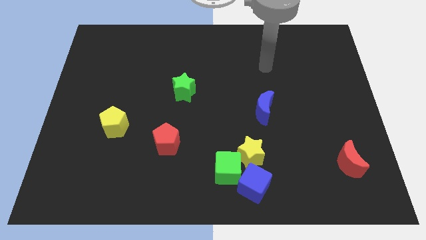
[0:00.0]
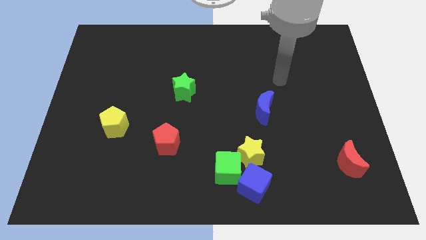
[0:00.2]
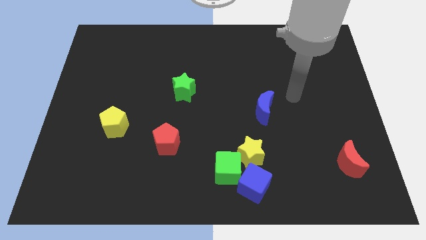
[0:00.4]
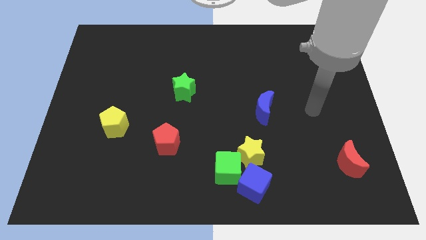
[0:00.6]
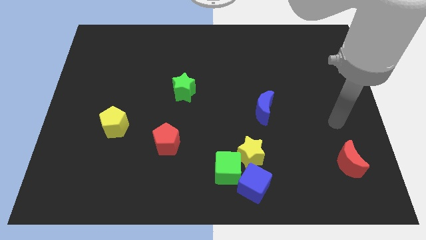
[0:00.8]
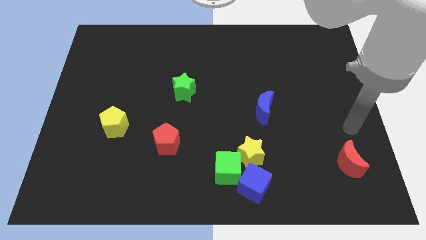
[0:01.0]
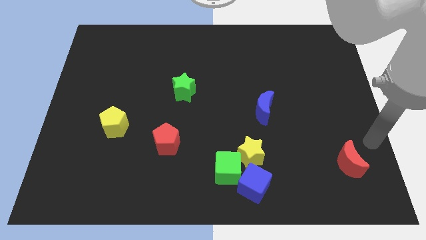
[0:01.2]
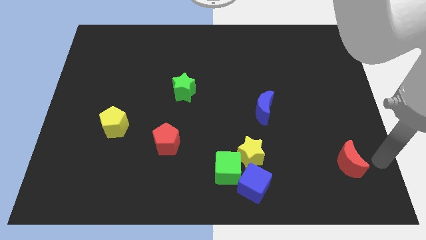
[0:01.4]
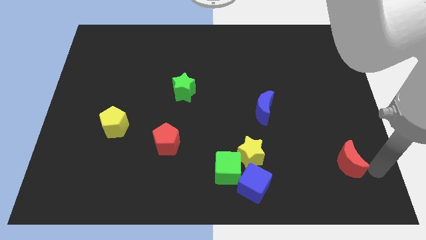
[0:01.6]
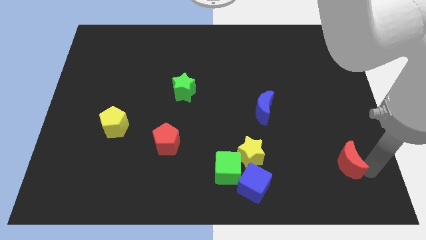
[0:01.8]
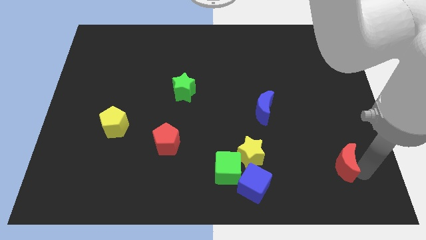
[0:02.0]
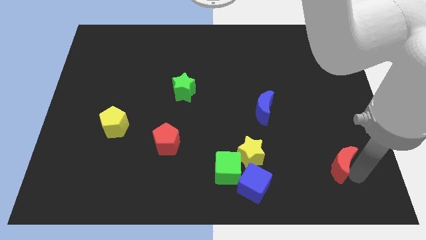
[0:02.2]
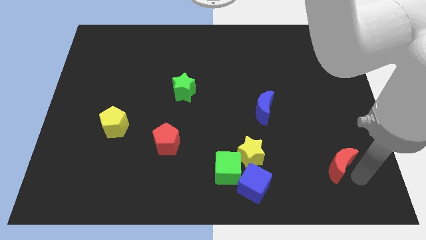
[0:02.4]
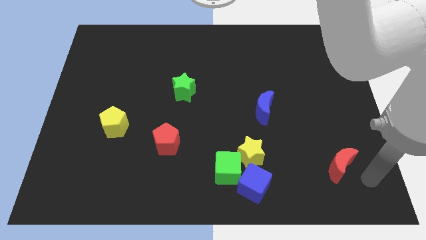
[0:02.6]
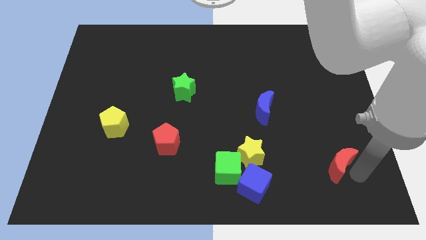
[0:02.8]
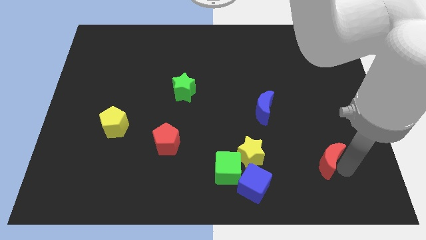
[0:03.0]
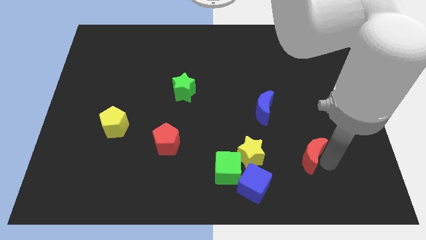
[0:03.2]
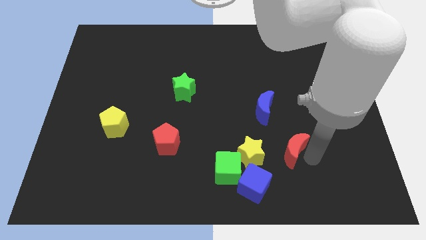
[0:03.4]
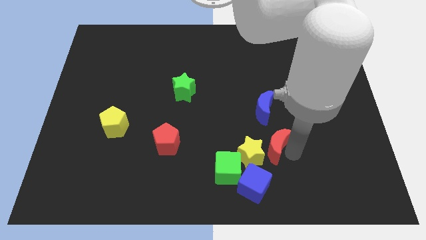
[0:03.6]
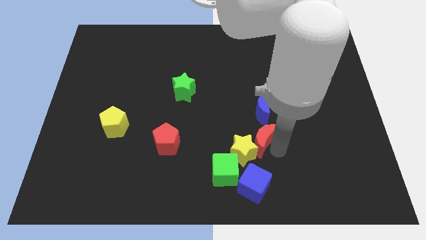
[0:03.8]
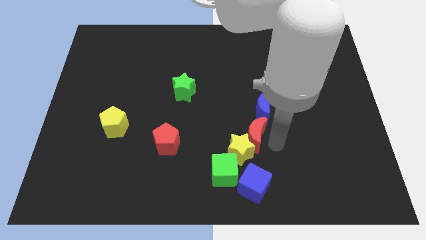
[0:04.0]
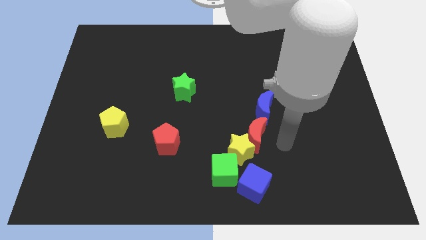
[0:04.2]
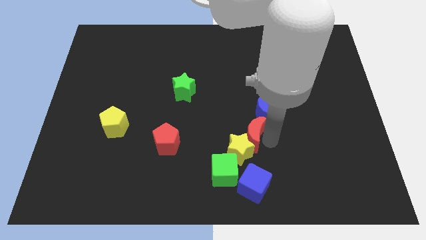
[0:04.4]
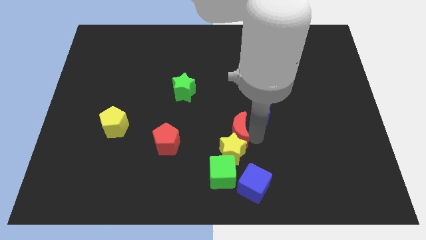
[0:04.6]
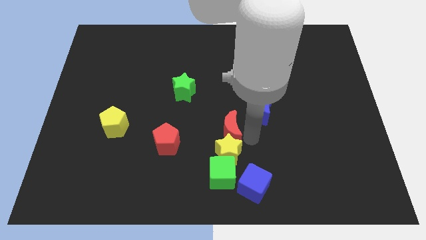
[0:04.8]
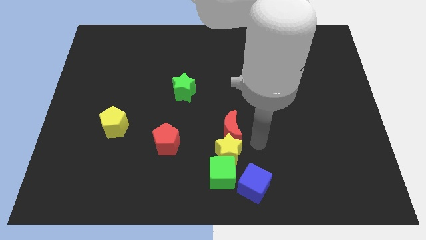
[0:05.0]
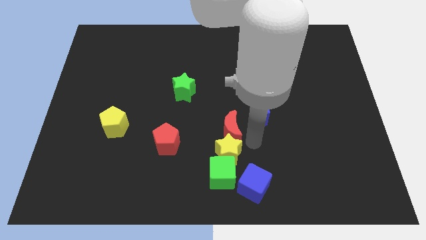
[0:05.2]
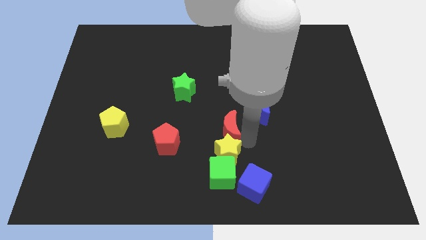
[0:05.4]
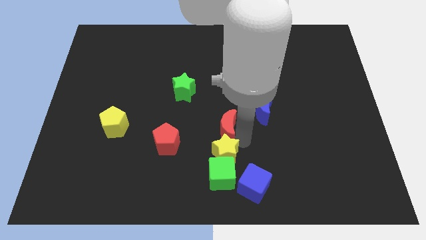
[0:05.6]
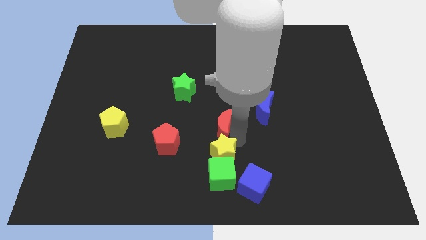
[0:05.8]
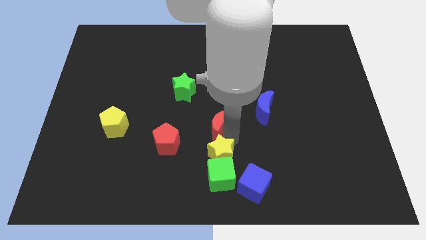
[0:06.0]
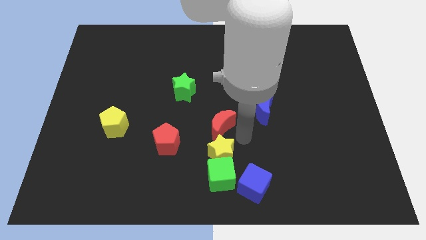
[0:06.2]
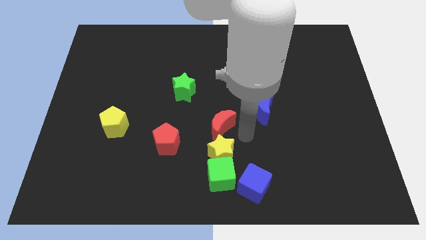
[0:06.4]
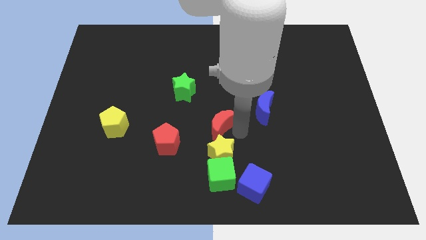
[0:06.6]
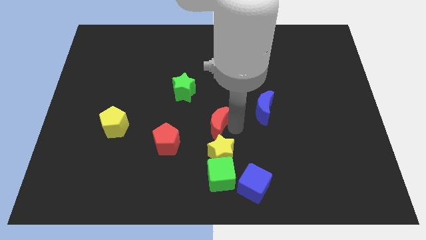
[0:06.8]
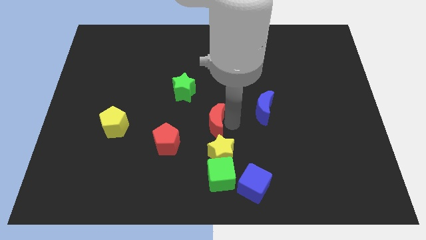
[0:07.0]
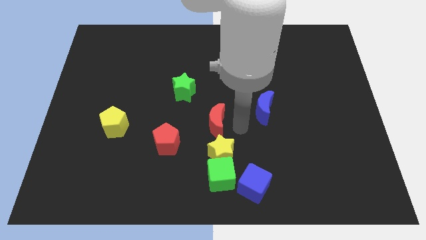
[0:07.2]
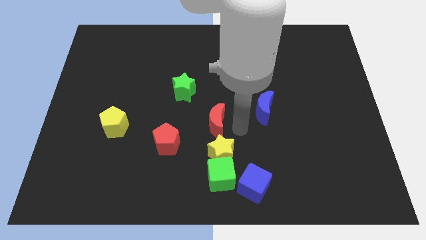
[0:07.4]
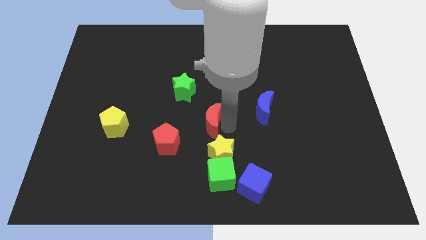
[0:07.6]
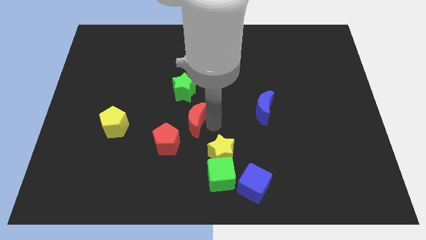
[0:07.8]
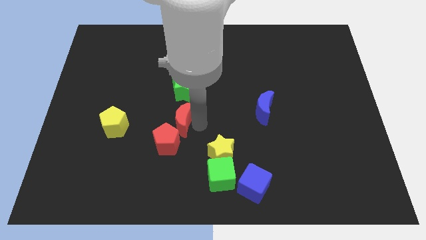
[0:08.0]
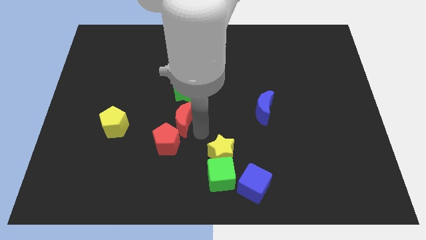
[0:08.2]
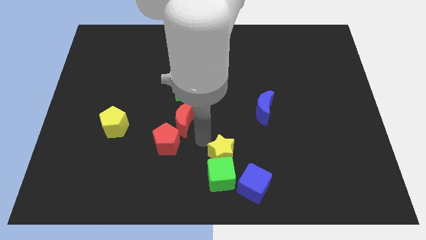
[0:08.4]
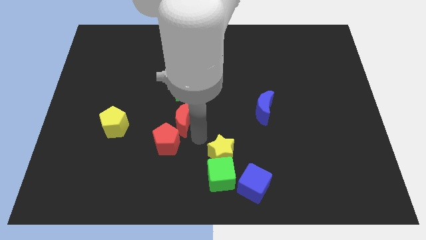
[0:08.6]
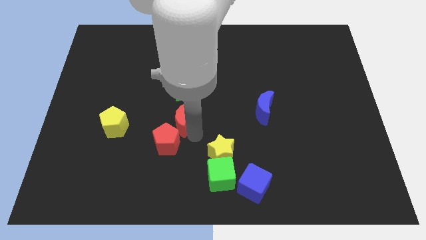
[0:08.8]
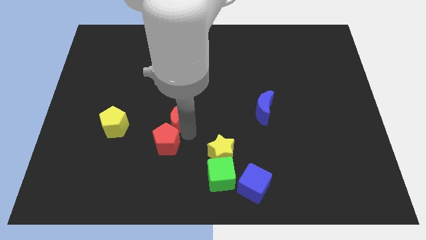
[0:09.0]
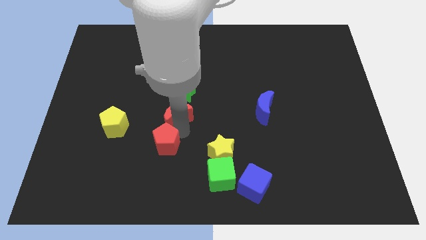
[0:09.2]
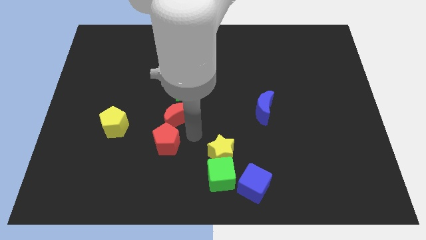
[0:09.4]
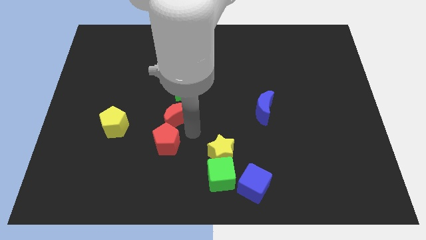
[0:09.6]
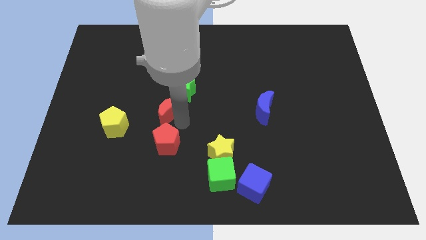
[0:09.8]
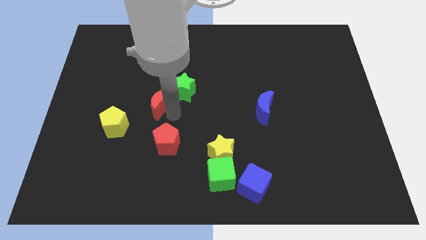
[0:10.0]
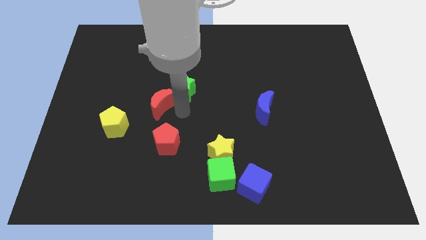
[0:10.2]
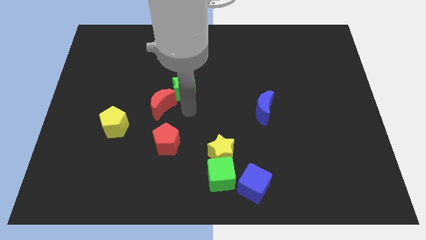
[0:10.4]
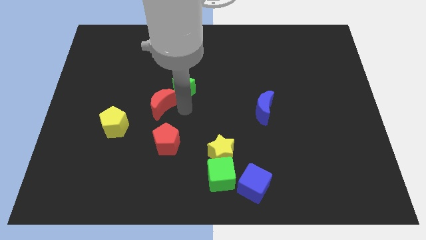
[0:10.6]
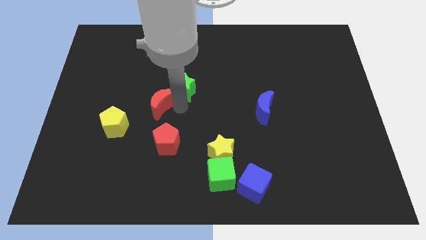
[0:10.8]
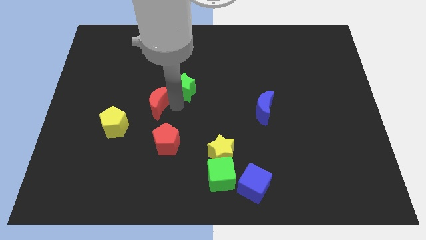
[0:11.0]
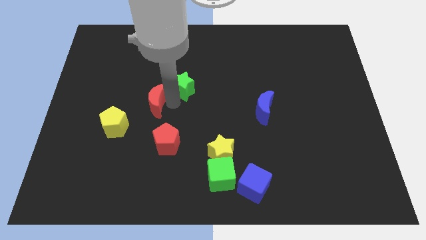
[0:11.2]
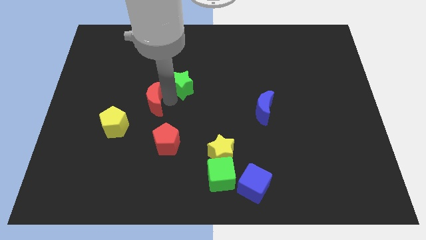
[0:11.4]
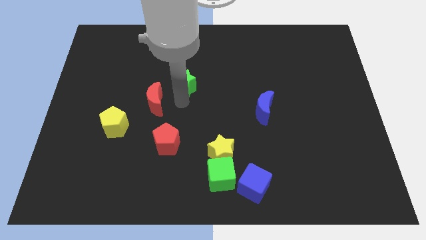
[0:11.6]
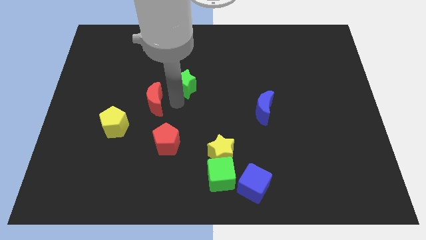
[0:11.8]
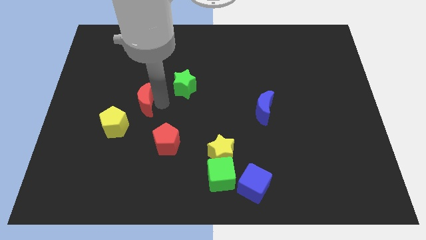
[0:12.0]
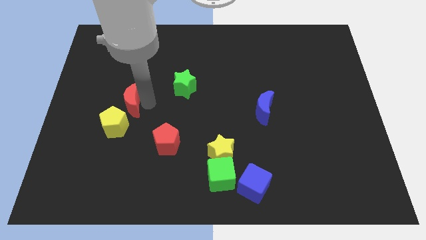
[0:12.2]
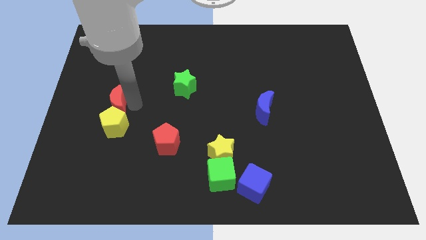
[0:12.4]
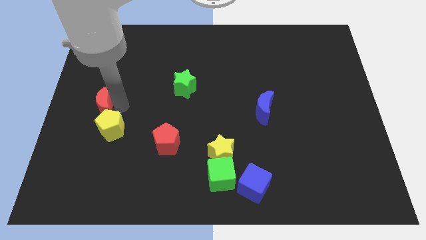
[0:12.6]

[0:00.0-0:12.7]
move the red moon to the center left
